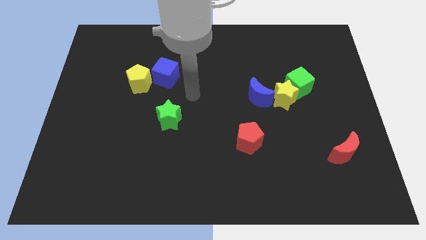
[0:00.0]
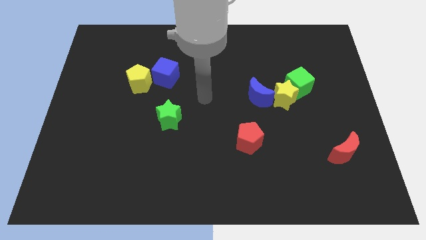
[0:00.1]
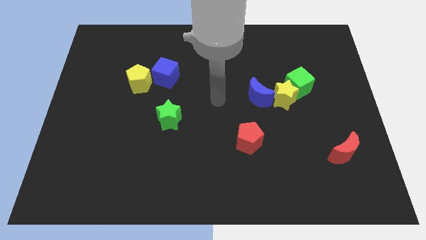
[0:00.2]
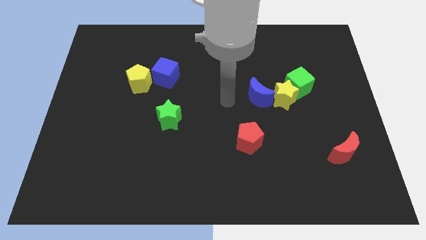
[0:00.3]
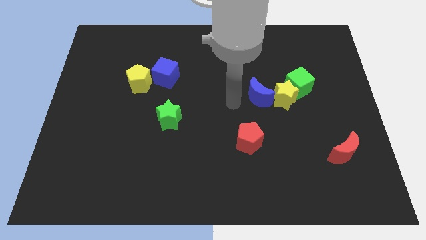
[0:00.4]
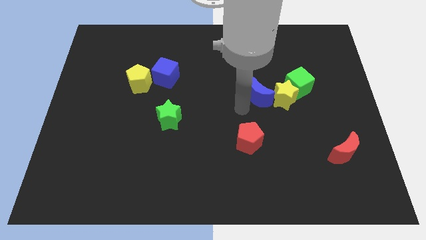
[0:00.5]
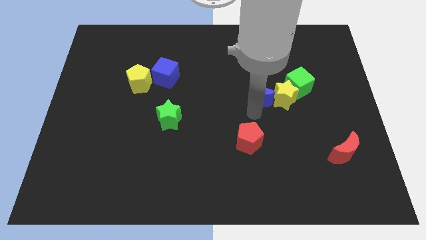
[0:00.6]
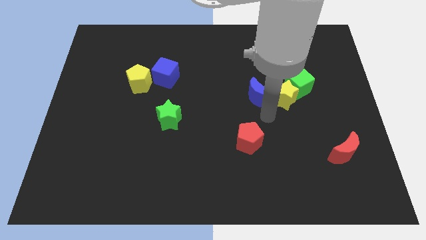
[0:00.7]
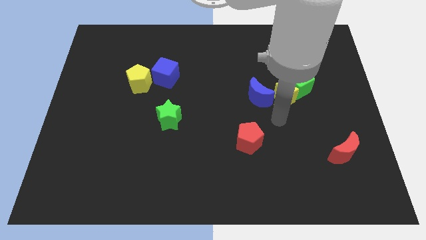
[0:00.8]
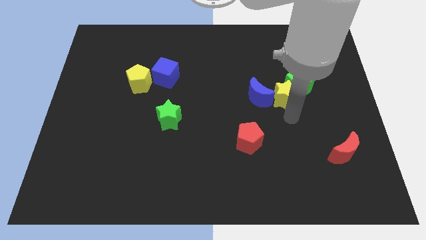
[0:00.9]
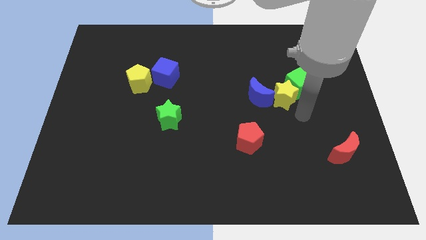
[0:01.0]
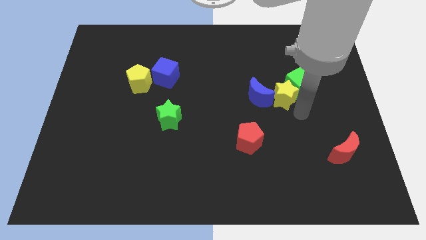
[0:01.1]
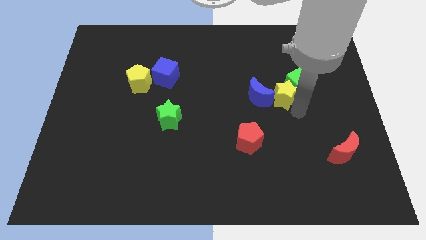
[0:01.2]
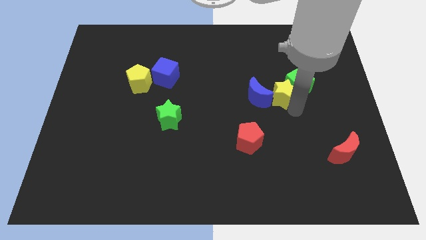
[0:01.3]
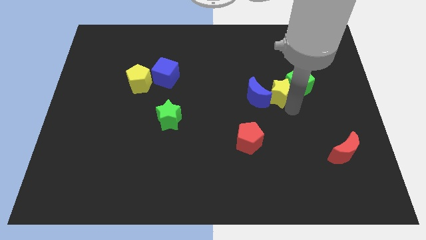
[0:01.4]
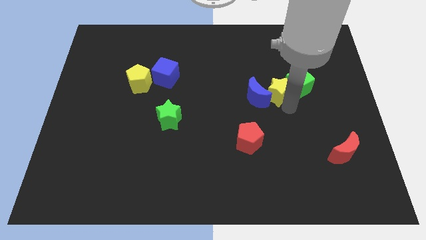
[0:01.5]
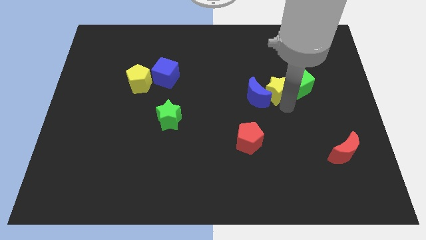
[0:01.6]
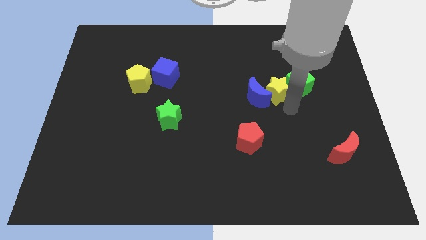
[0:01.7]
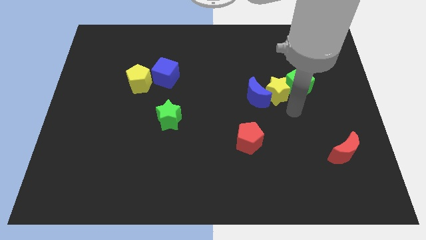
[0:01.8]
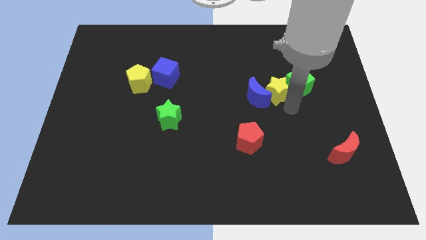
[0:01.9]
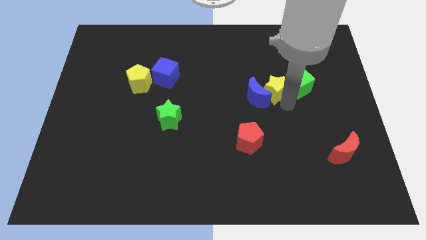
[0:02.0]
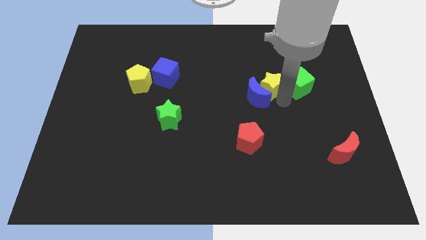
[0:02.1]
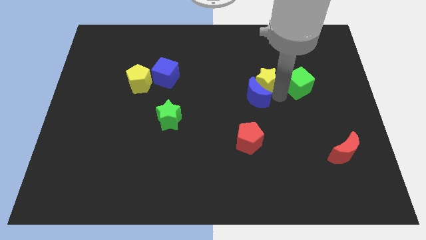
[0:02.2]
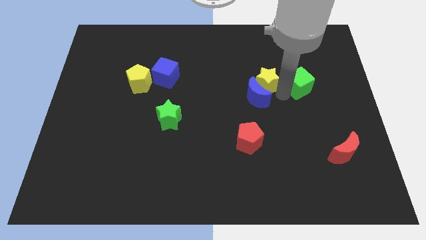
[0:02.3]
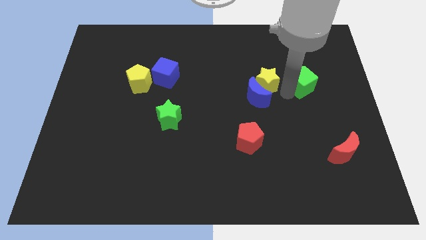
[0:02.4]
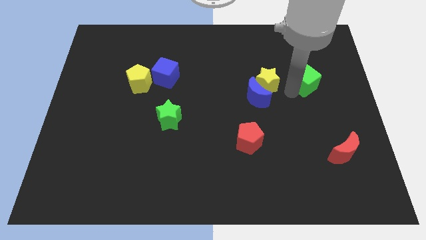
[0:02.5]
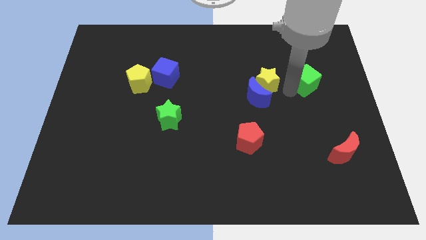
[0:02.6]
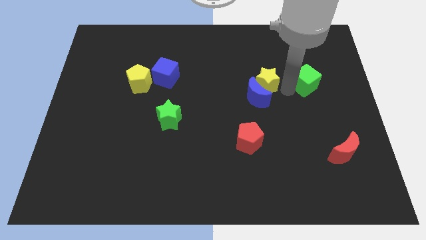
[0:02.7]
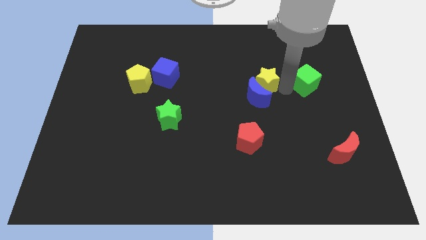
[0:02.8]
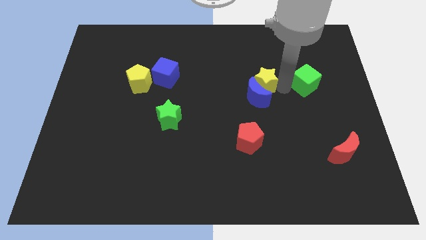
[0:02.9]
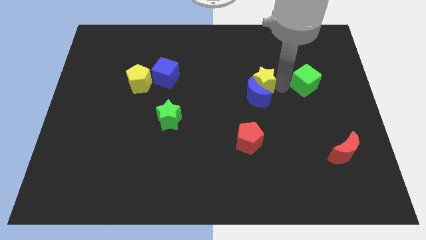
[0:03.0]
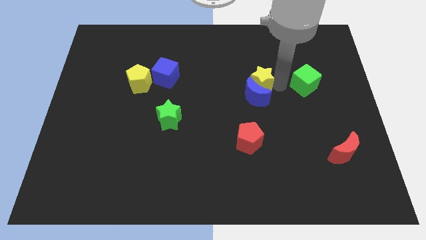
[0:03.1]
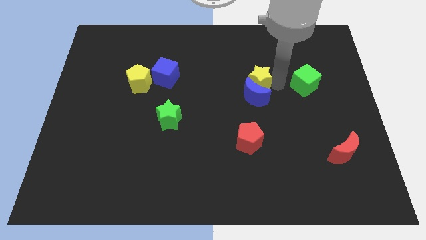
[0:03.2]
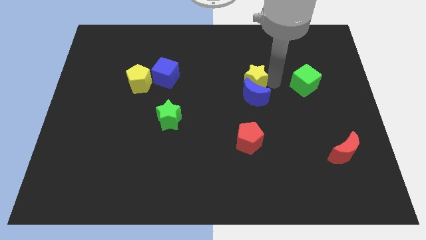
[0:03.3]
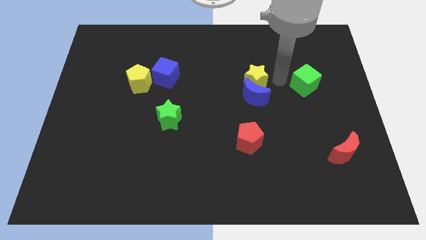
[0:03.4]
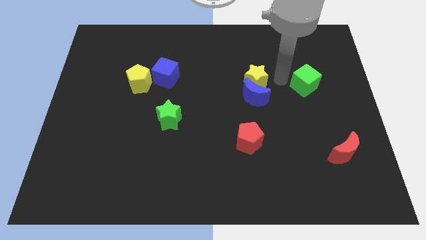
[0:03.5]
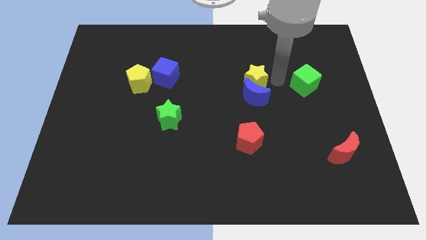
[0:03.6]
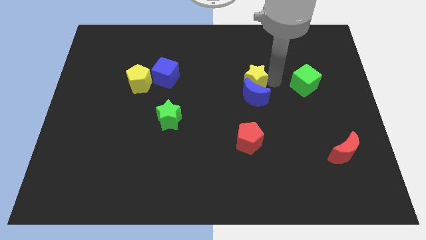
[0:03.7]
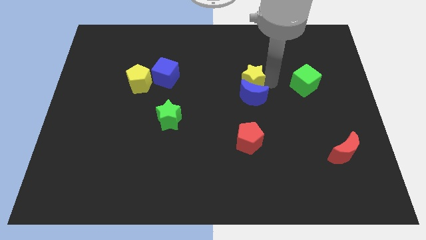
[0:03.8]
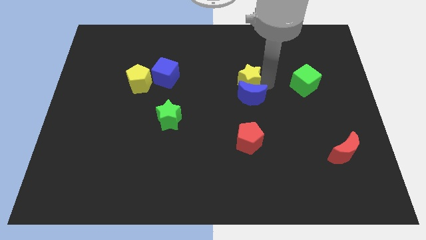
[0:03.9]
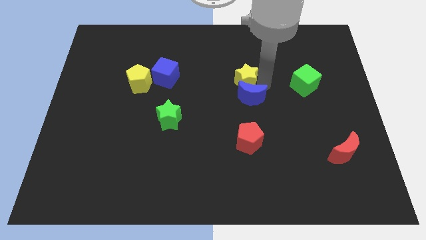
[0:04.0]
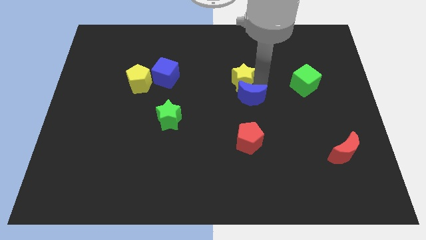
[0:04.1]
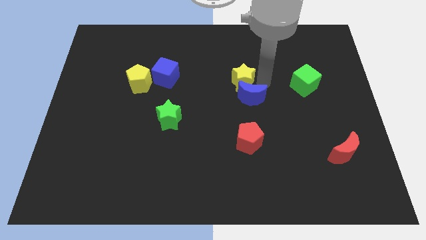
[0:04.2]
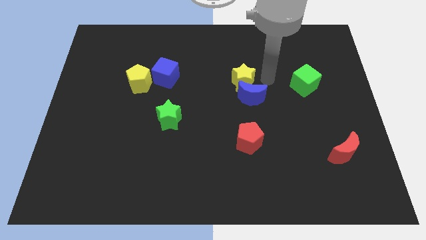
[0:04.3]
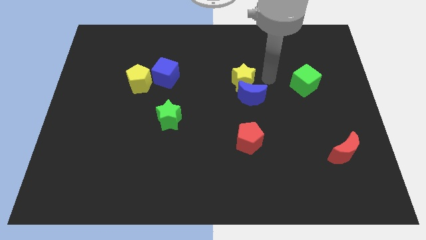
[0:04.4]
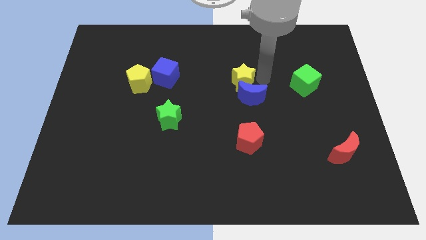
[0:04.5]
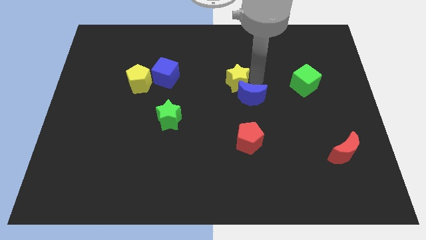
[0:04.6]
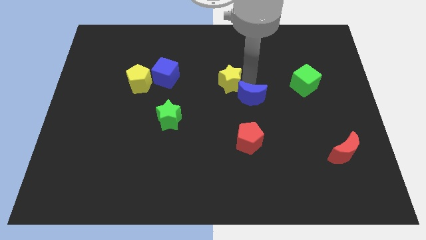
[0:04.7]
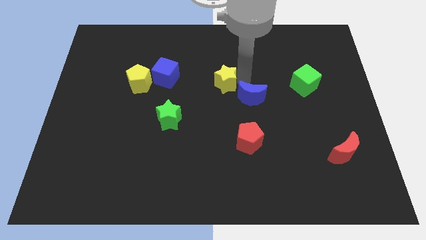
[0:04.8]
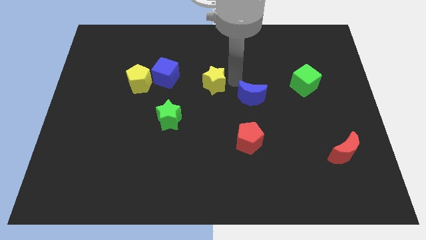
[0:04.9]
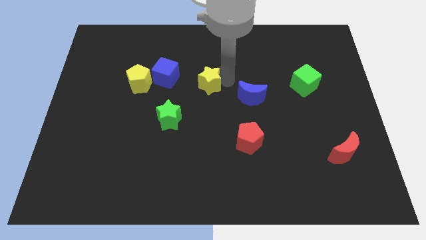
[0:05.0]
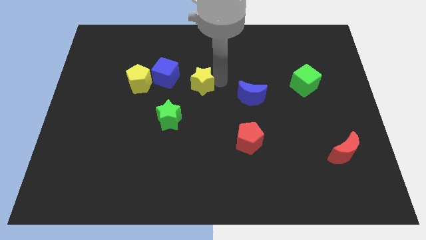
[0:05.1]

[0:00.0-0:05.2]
slide the yellow star to the bottom right side of the blue cube

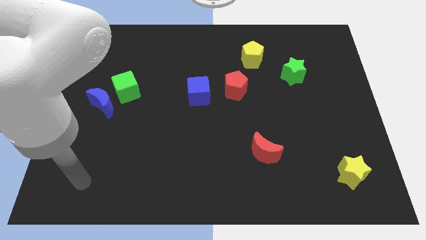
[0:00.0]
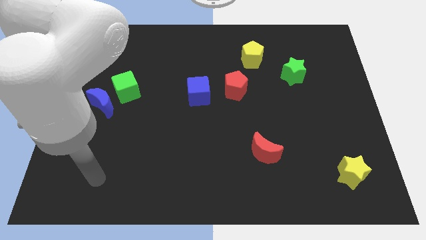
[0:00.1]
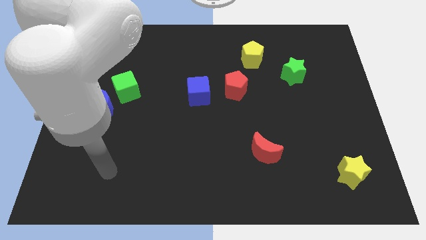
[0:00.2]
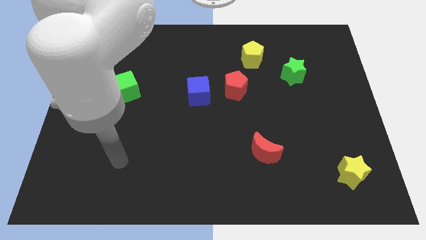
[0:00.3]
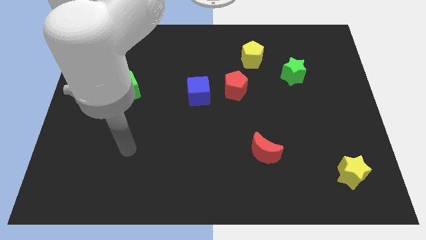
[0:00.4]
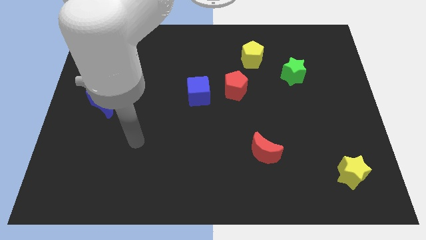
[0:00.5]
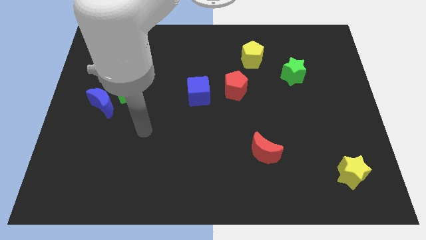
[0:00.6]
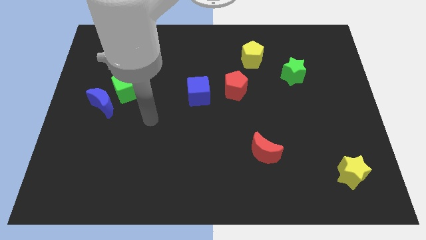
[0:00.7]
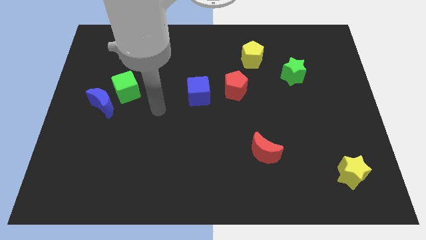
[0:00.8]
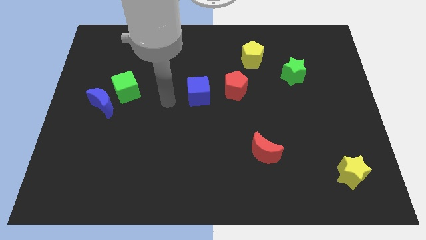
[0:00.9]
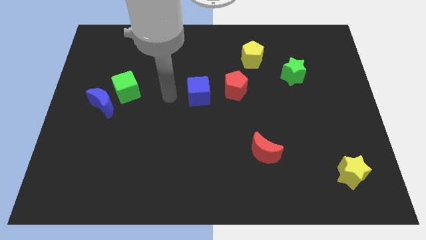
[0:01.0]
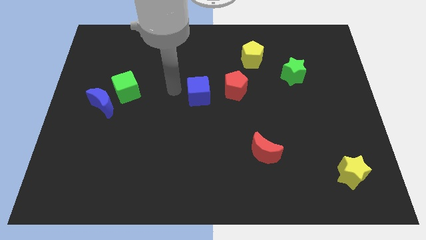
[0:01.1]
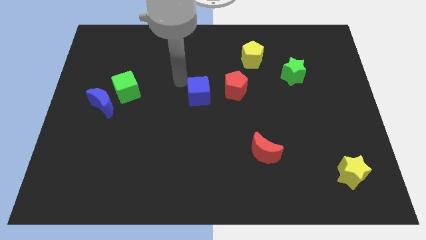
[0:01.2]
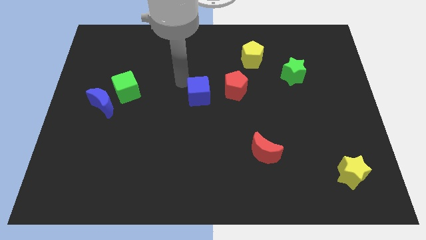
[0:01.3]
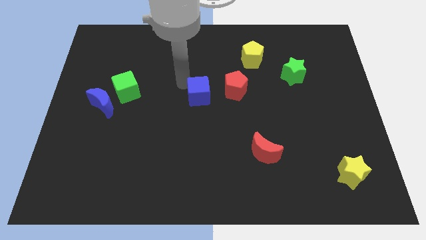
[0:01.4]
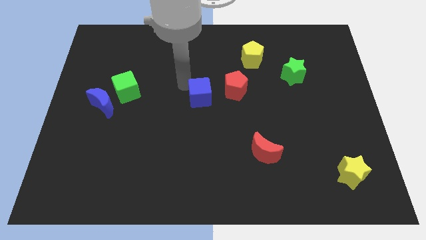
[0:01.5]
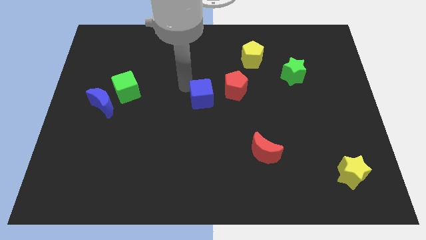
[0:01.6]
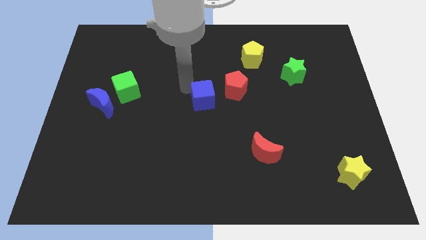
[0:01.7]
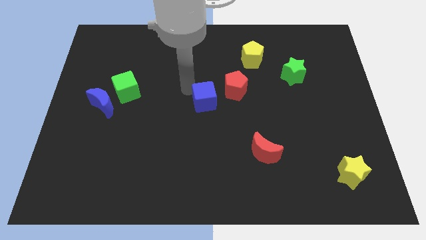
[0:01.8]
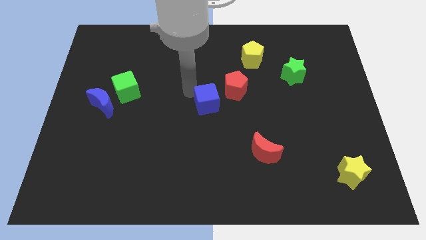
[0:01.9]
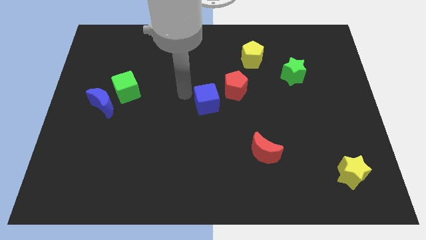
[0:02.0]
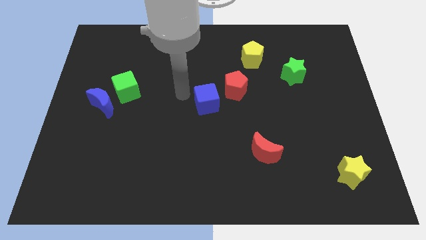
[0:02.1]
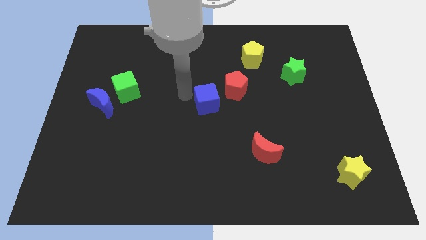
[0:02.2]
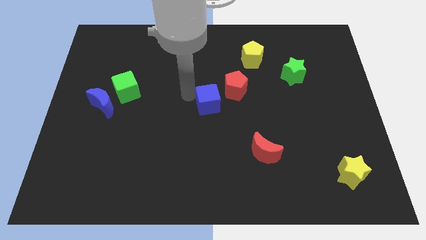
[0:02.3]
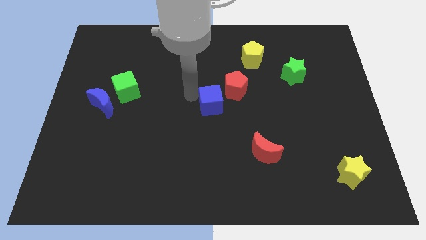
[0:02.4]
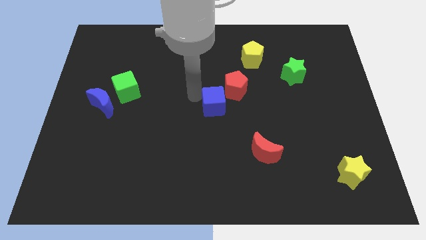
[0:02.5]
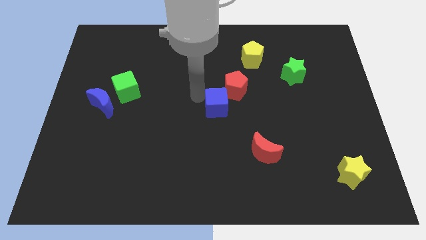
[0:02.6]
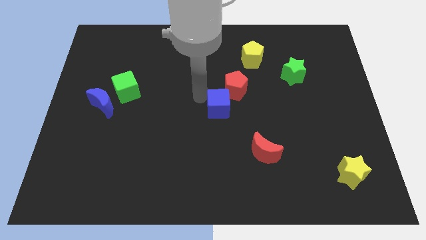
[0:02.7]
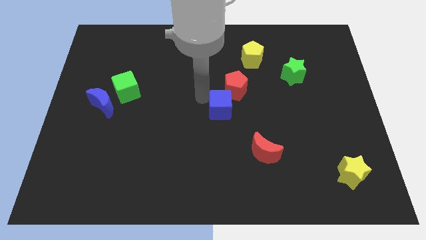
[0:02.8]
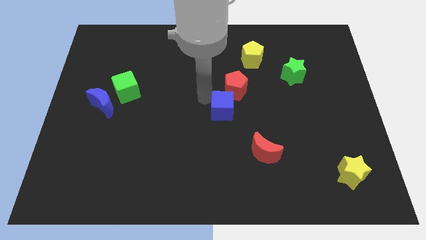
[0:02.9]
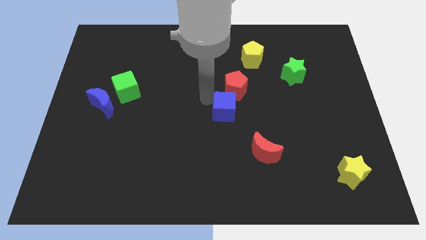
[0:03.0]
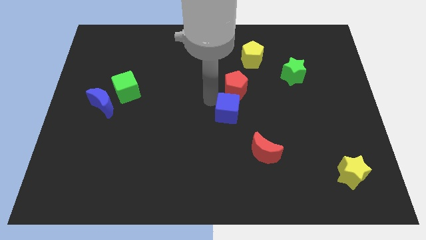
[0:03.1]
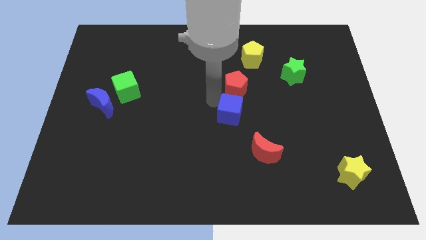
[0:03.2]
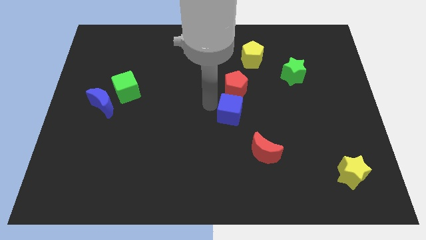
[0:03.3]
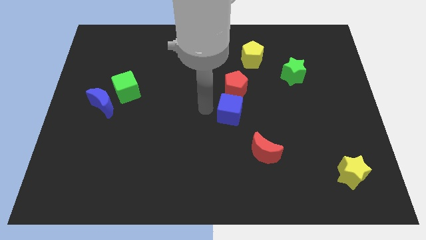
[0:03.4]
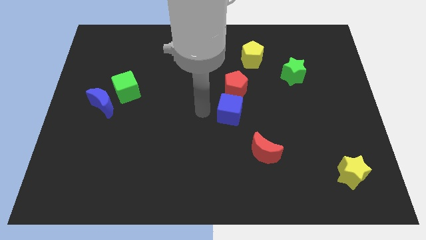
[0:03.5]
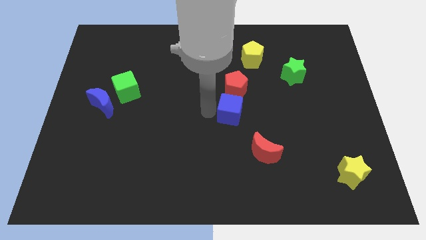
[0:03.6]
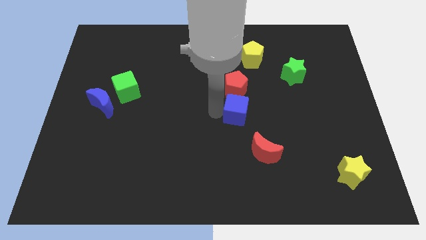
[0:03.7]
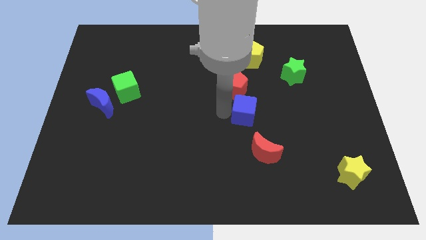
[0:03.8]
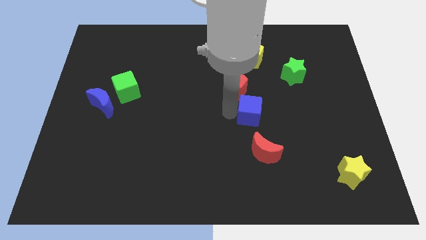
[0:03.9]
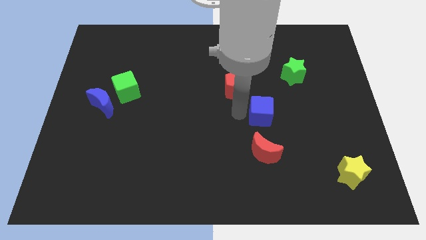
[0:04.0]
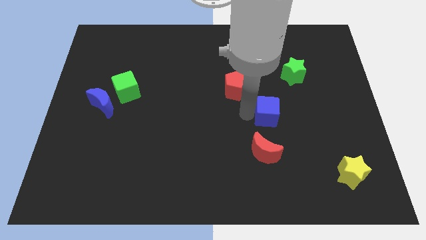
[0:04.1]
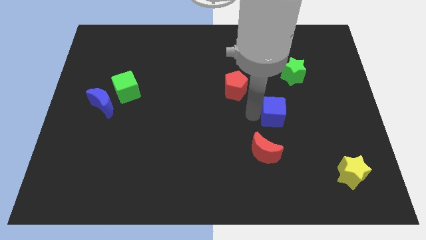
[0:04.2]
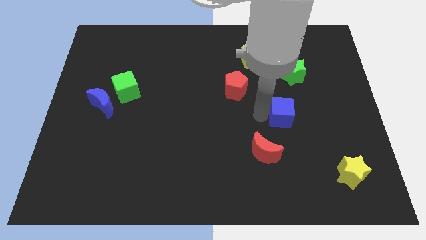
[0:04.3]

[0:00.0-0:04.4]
put the blue cube below the green star
